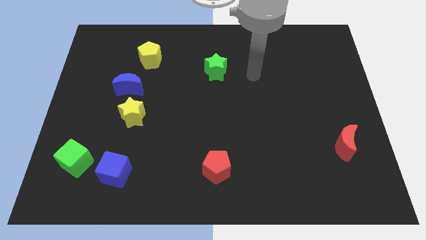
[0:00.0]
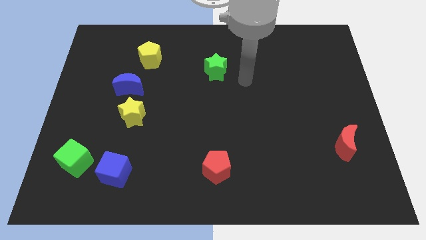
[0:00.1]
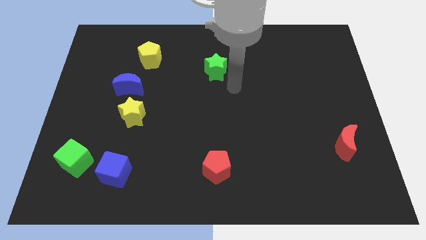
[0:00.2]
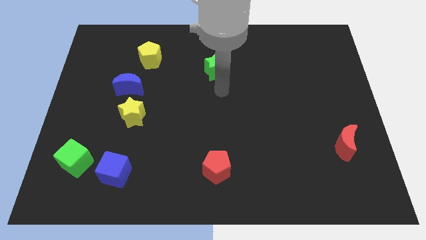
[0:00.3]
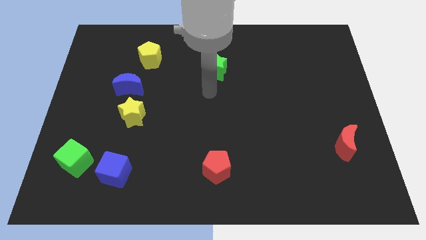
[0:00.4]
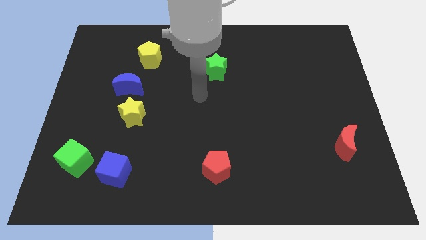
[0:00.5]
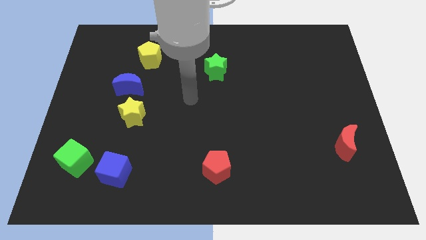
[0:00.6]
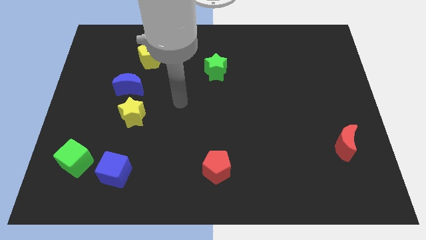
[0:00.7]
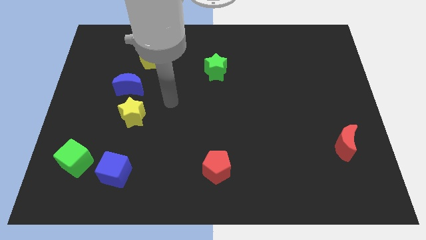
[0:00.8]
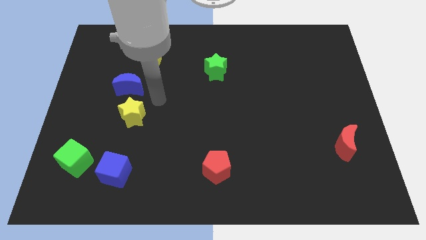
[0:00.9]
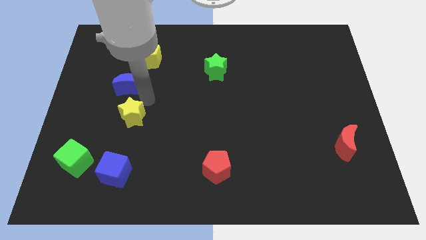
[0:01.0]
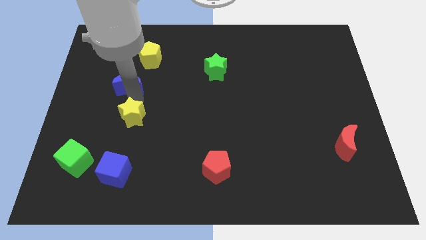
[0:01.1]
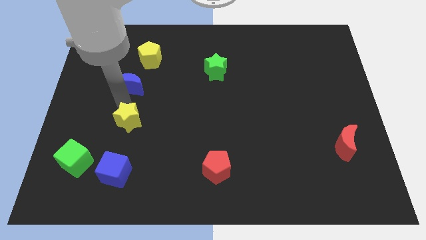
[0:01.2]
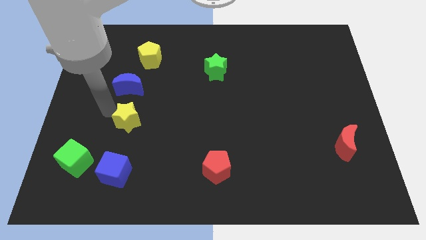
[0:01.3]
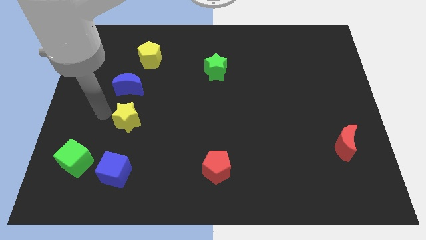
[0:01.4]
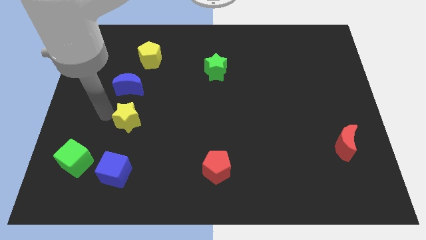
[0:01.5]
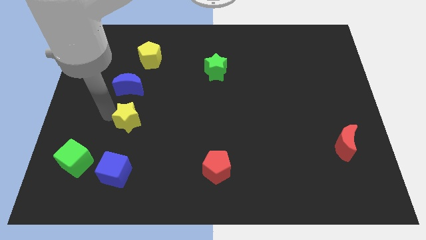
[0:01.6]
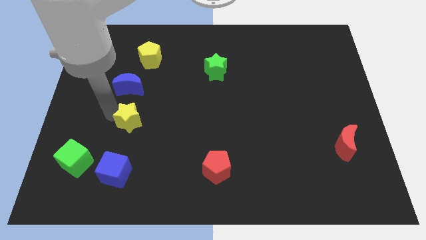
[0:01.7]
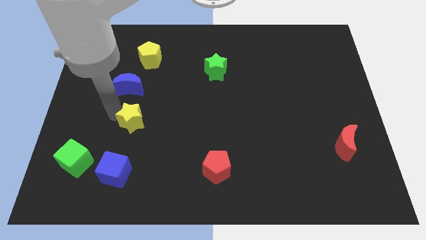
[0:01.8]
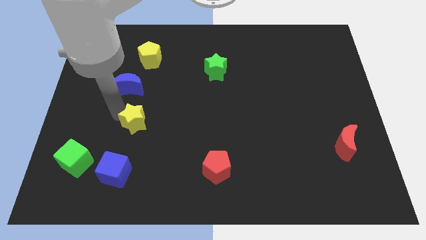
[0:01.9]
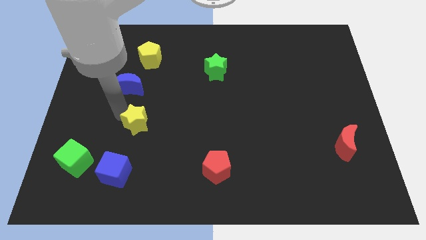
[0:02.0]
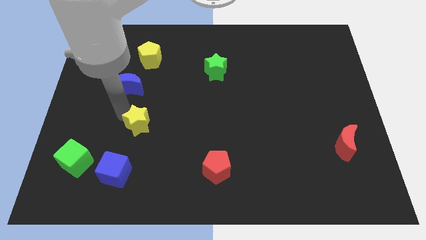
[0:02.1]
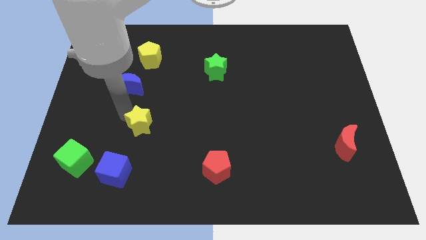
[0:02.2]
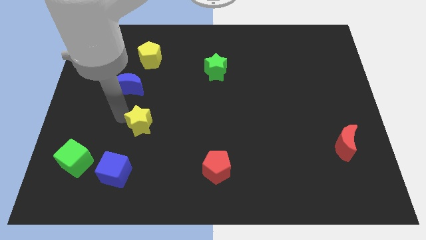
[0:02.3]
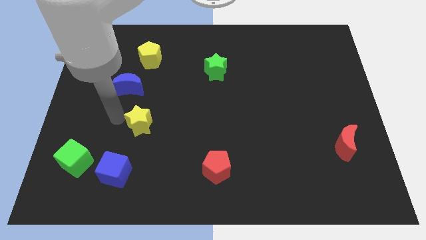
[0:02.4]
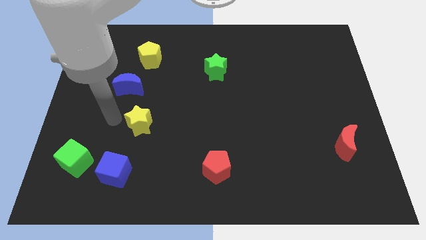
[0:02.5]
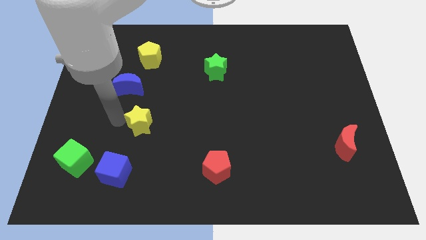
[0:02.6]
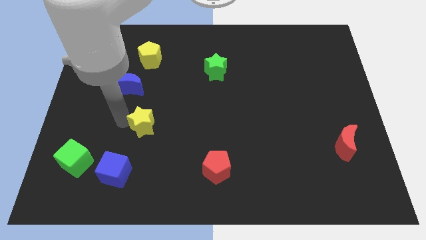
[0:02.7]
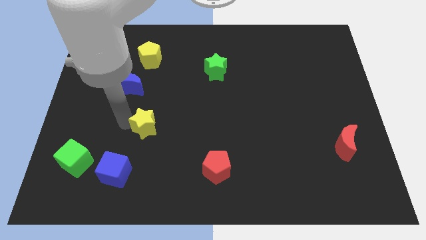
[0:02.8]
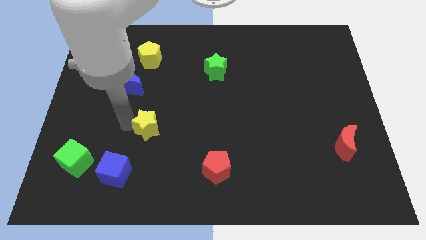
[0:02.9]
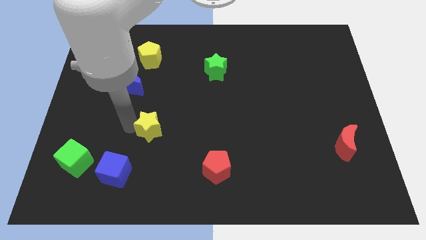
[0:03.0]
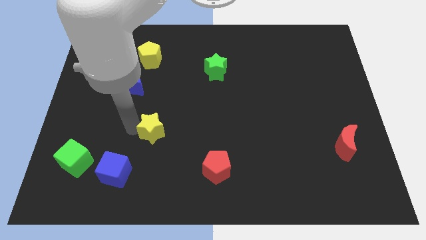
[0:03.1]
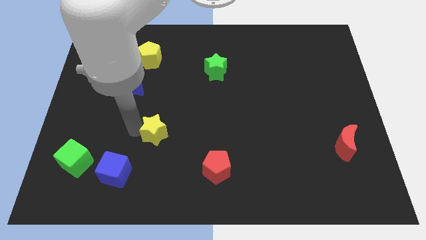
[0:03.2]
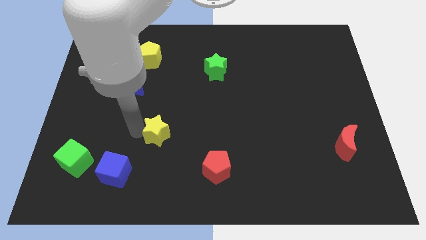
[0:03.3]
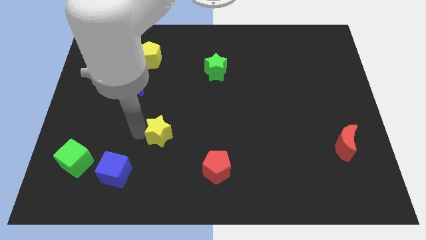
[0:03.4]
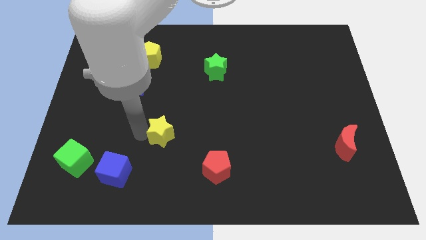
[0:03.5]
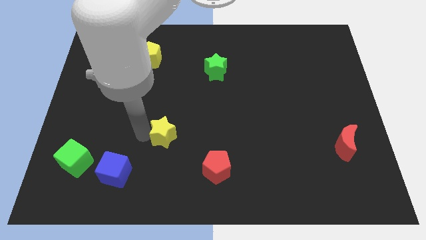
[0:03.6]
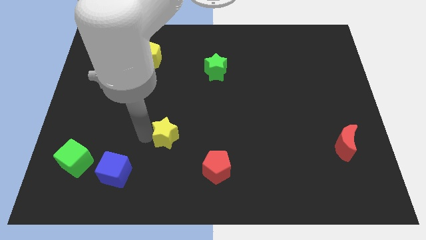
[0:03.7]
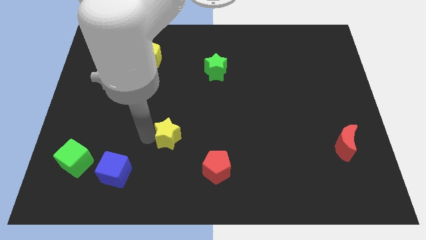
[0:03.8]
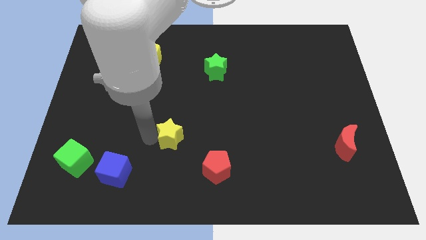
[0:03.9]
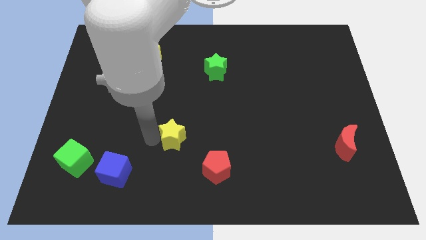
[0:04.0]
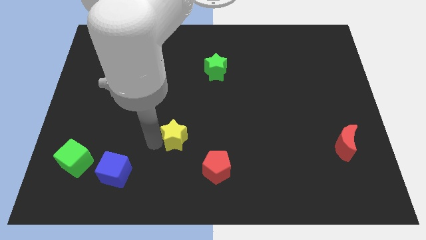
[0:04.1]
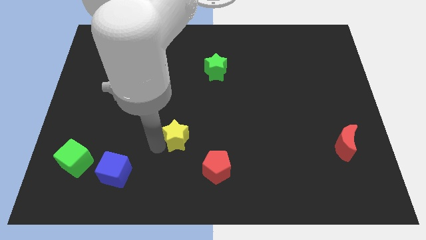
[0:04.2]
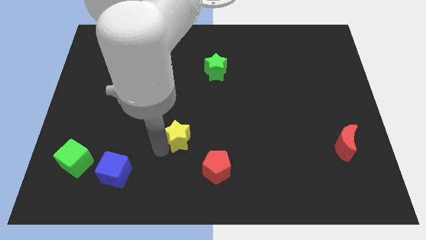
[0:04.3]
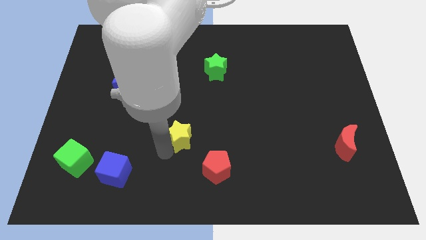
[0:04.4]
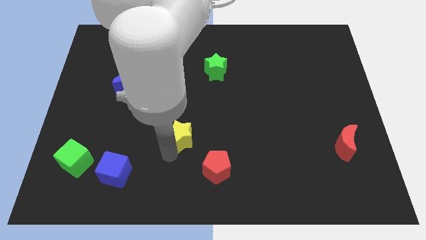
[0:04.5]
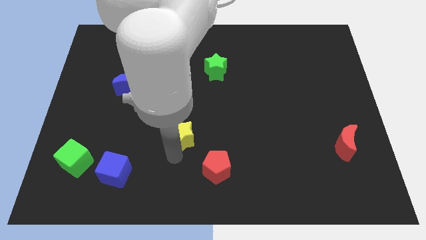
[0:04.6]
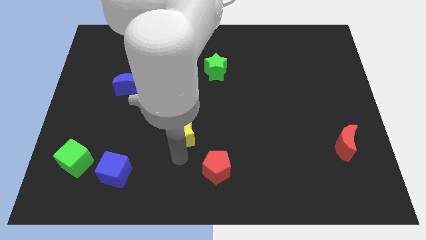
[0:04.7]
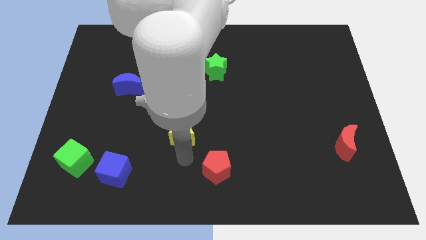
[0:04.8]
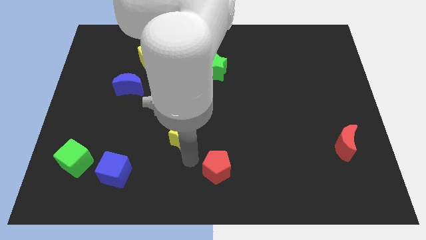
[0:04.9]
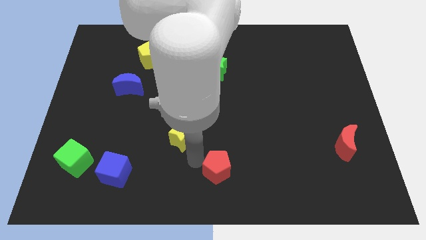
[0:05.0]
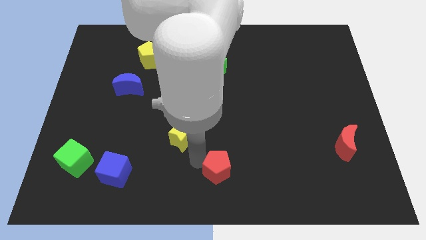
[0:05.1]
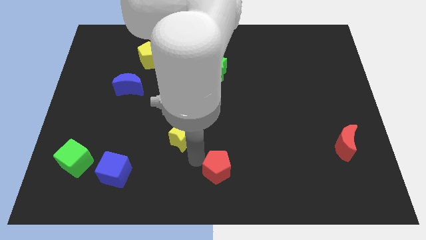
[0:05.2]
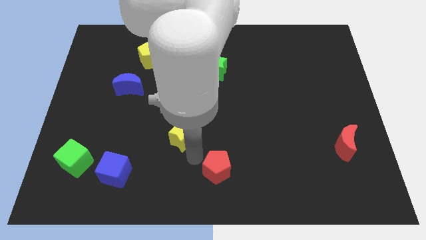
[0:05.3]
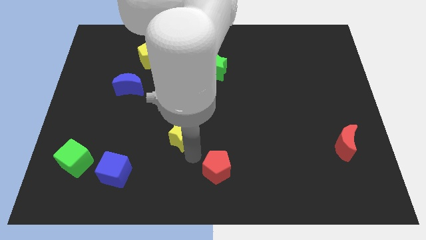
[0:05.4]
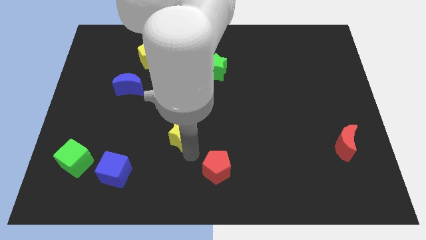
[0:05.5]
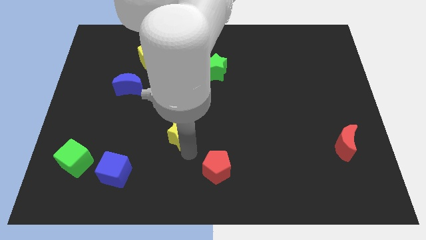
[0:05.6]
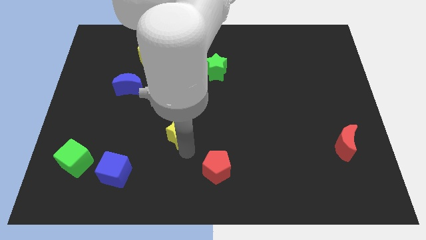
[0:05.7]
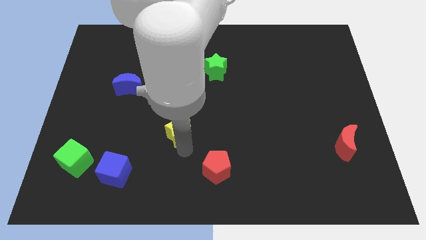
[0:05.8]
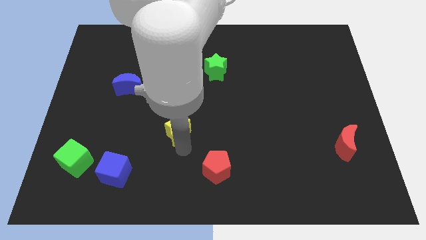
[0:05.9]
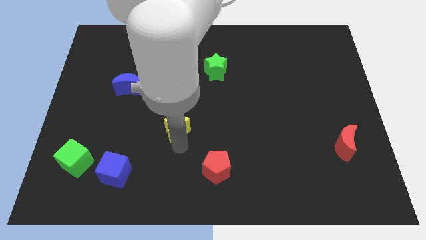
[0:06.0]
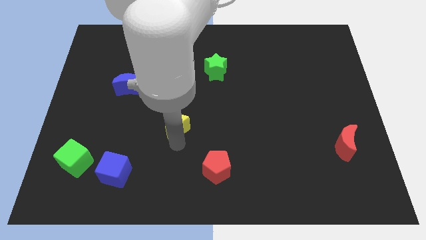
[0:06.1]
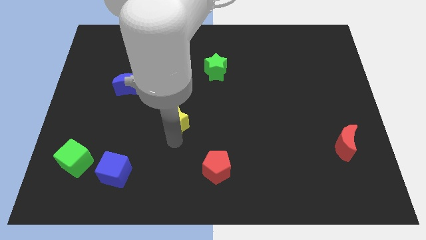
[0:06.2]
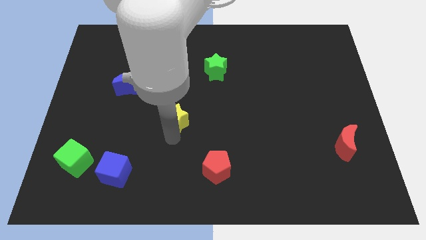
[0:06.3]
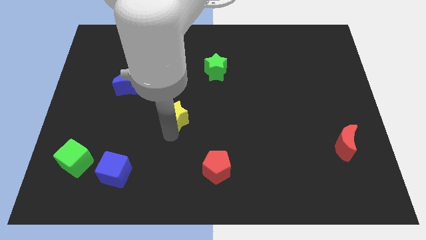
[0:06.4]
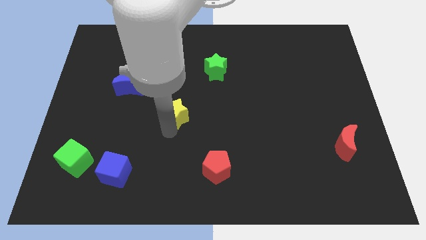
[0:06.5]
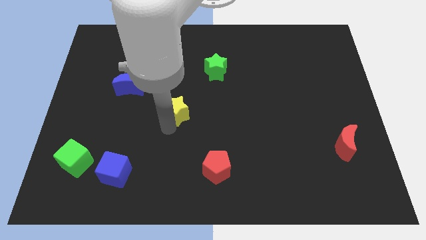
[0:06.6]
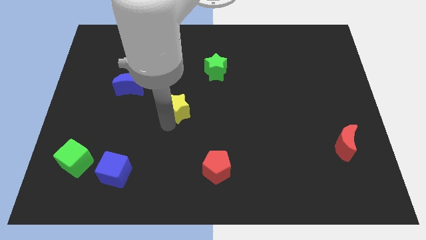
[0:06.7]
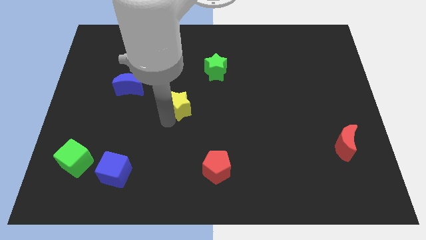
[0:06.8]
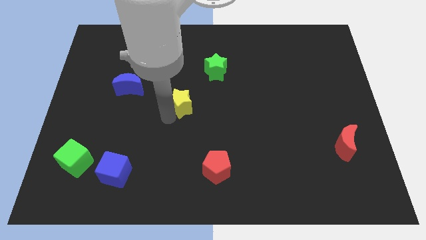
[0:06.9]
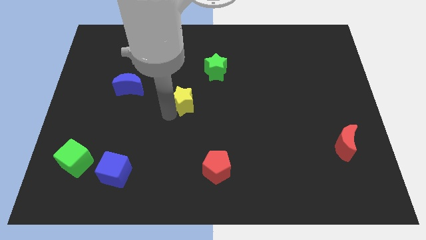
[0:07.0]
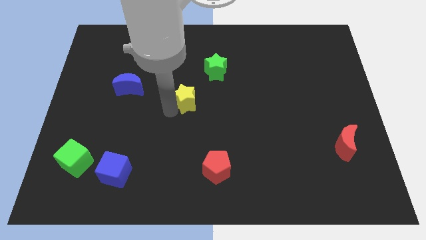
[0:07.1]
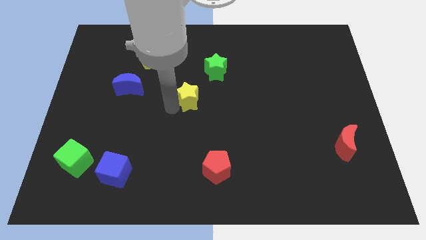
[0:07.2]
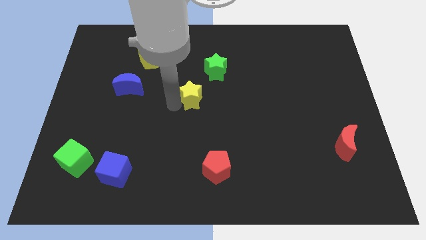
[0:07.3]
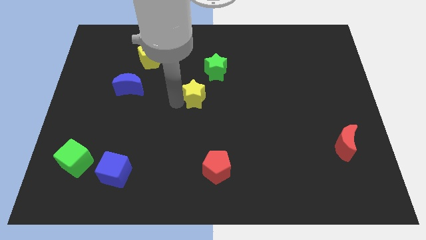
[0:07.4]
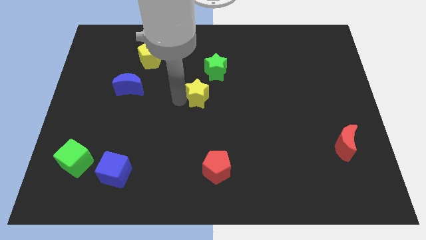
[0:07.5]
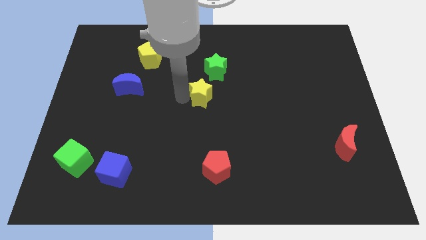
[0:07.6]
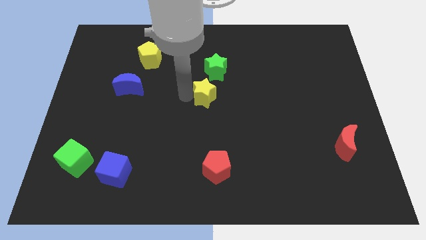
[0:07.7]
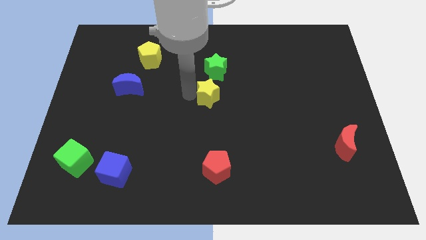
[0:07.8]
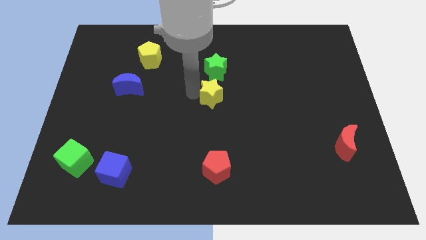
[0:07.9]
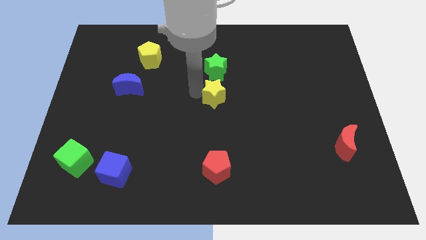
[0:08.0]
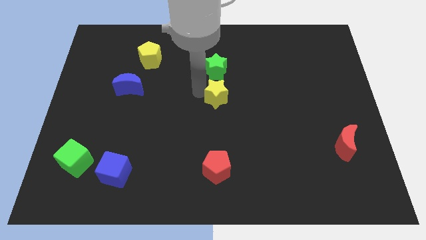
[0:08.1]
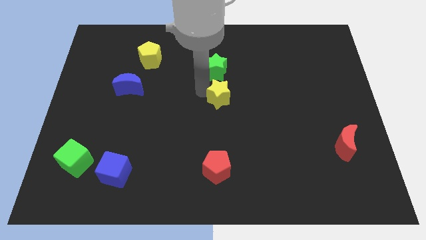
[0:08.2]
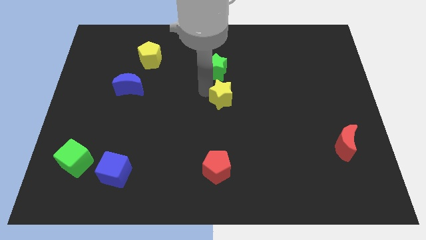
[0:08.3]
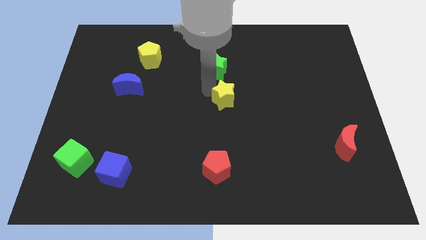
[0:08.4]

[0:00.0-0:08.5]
move the yellow star right
